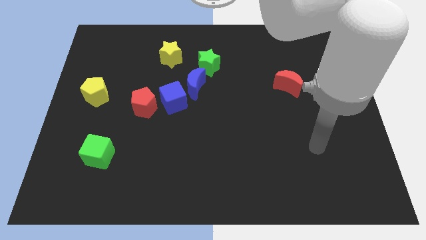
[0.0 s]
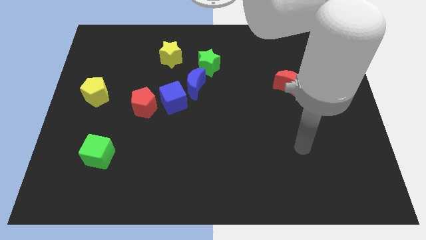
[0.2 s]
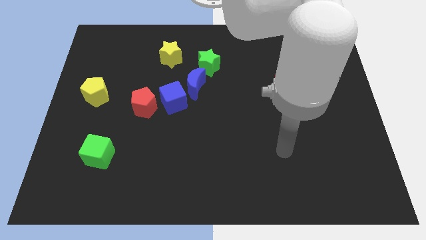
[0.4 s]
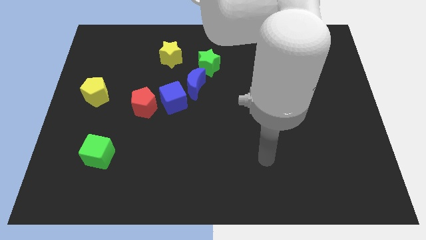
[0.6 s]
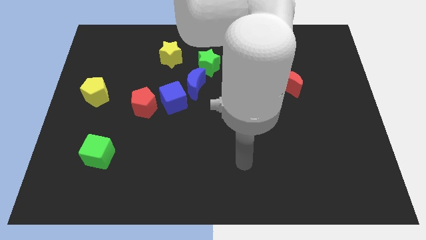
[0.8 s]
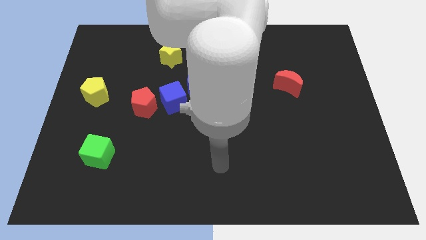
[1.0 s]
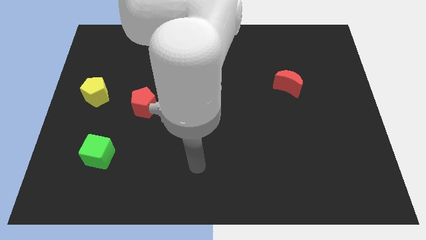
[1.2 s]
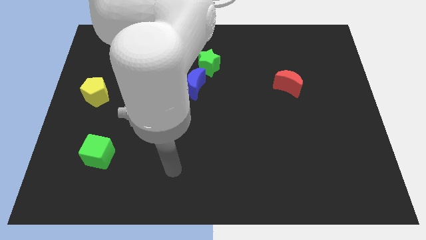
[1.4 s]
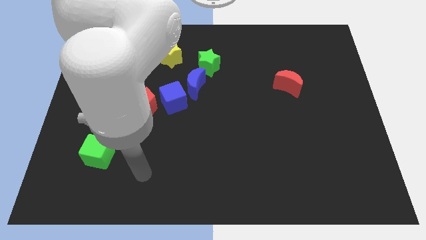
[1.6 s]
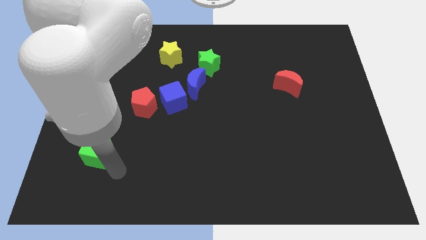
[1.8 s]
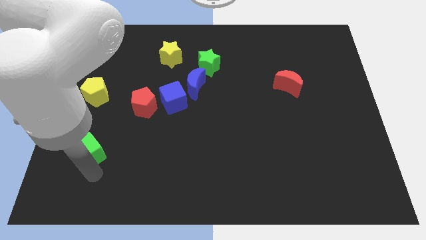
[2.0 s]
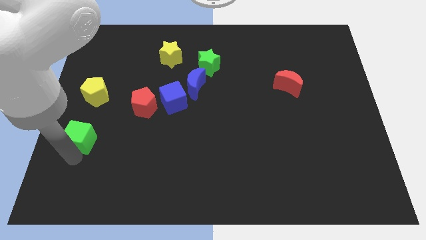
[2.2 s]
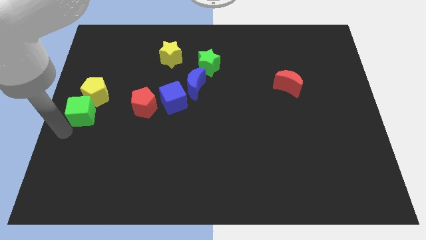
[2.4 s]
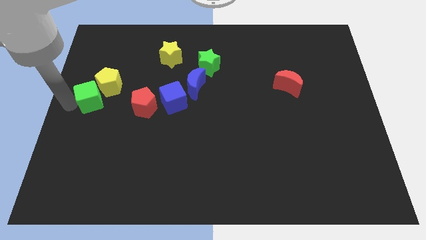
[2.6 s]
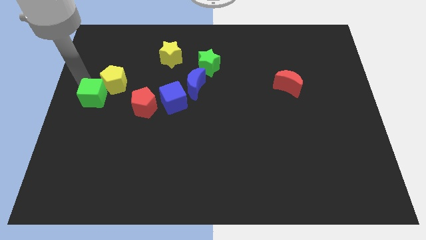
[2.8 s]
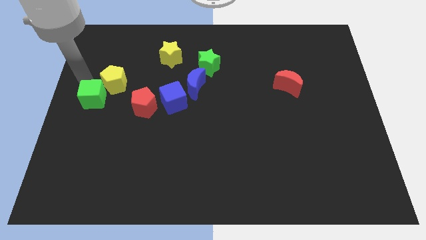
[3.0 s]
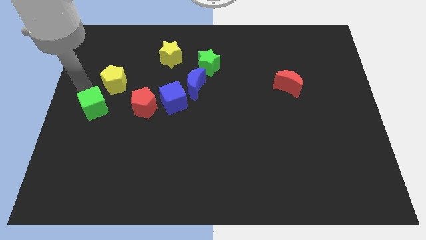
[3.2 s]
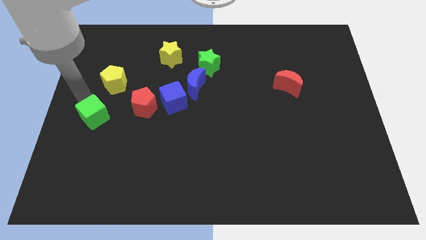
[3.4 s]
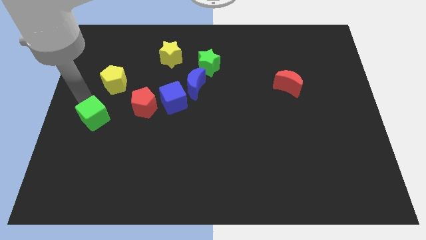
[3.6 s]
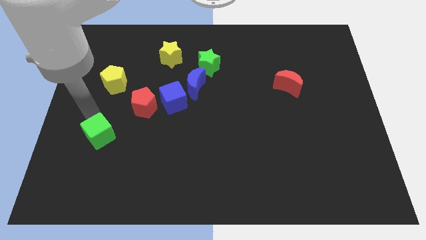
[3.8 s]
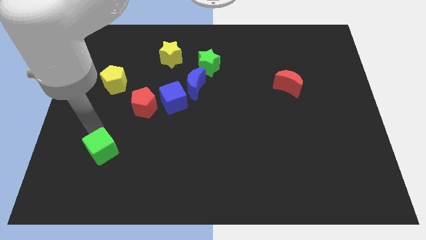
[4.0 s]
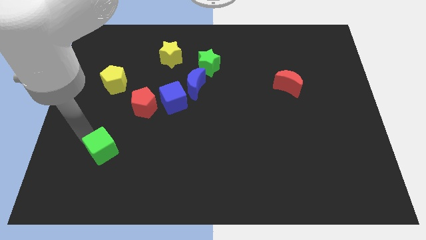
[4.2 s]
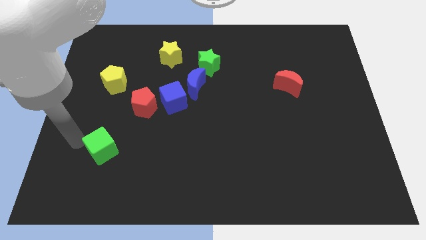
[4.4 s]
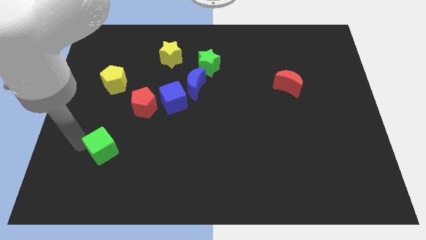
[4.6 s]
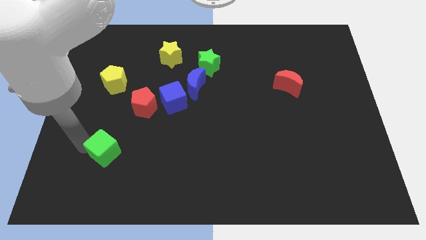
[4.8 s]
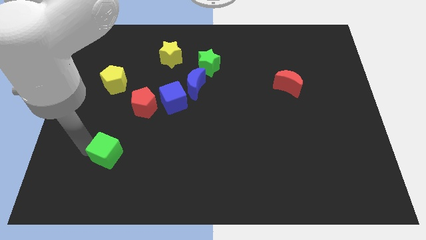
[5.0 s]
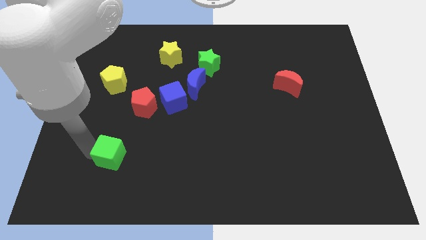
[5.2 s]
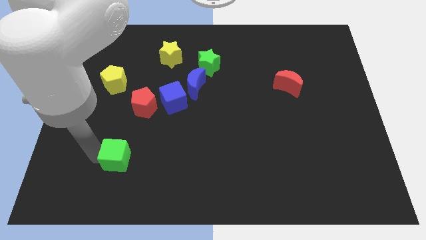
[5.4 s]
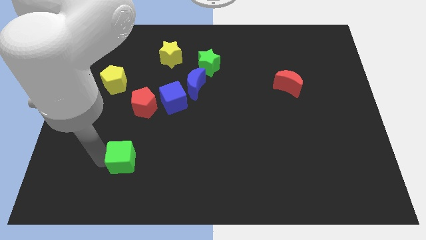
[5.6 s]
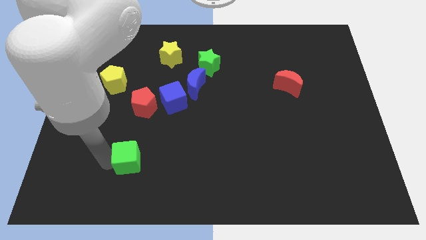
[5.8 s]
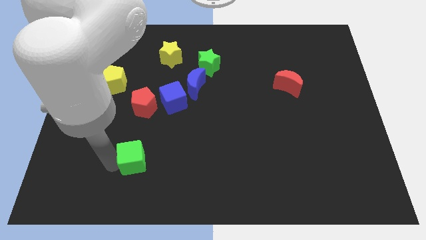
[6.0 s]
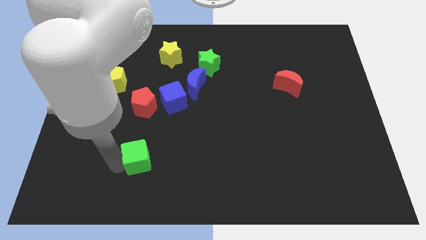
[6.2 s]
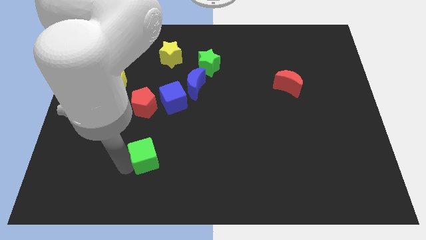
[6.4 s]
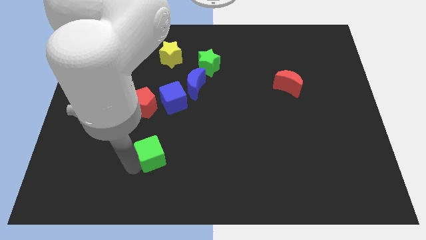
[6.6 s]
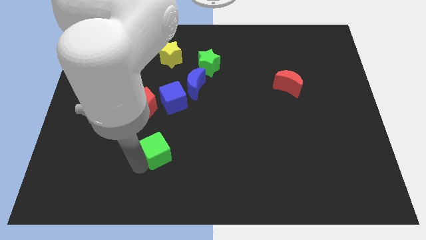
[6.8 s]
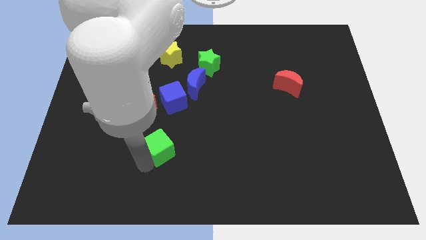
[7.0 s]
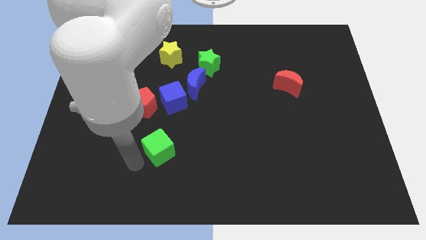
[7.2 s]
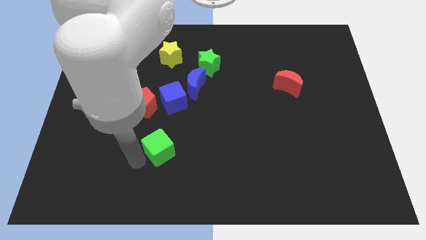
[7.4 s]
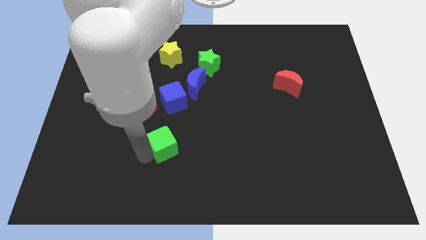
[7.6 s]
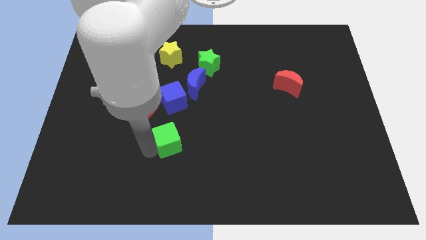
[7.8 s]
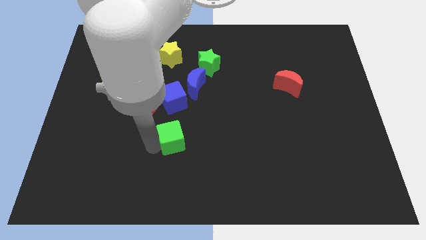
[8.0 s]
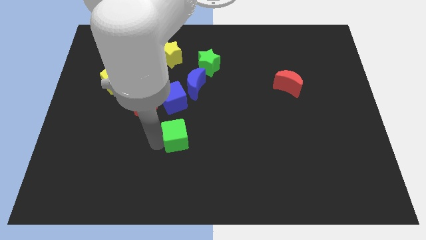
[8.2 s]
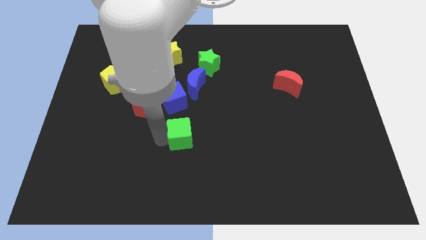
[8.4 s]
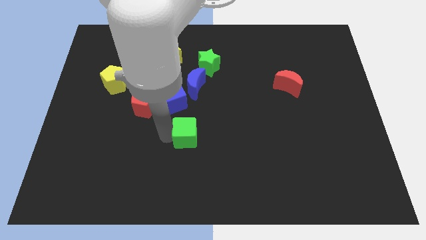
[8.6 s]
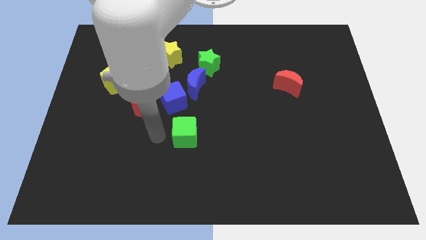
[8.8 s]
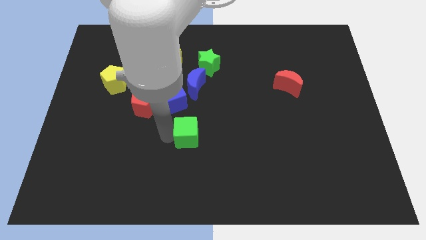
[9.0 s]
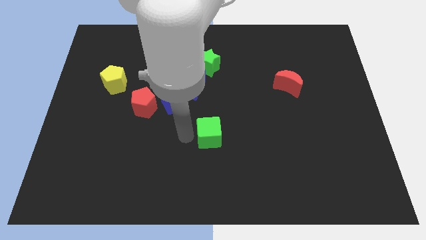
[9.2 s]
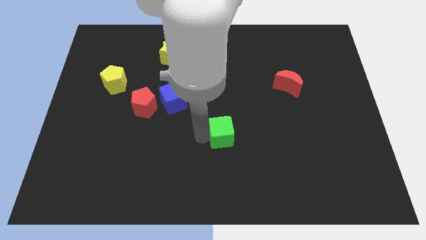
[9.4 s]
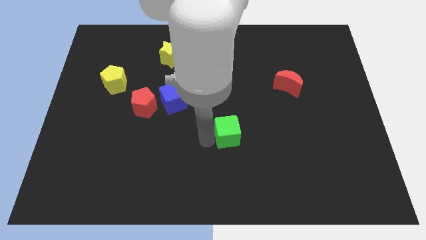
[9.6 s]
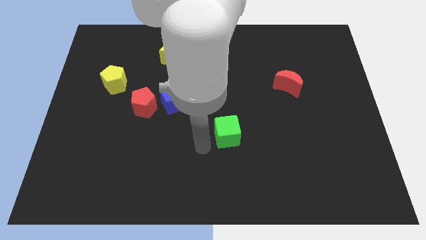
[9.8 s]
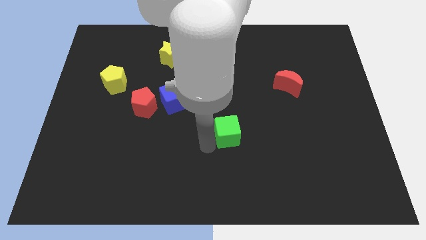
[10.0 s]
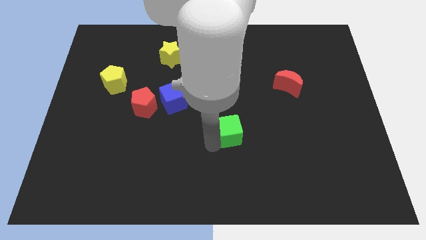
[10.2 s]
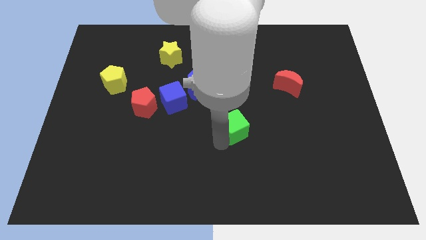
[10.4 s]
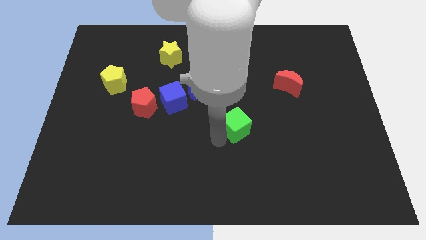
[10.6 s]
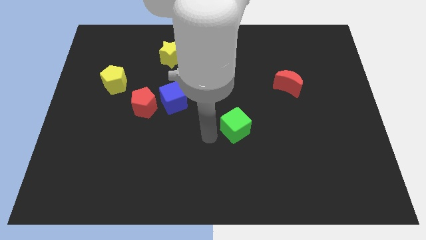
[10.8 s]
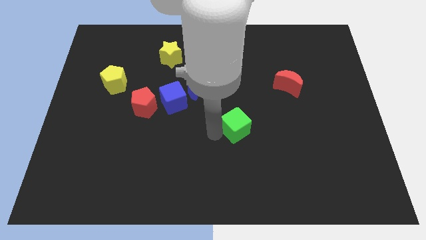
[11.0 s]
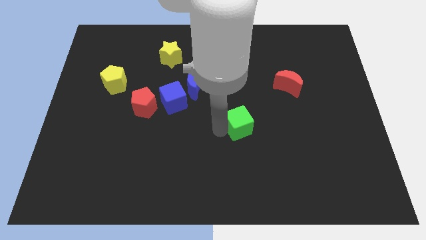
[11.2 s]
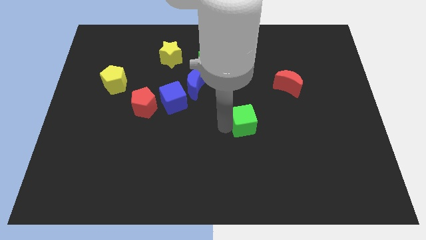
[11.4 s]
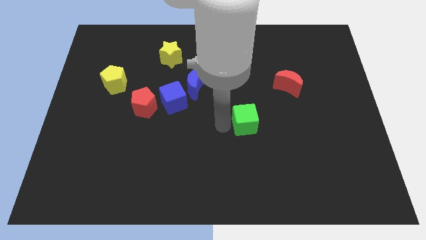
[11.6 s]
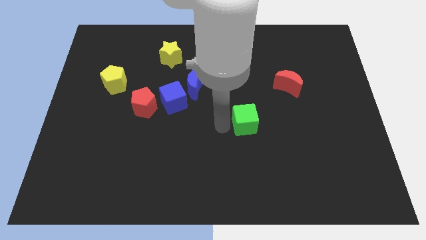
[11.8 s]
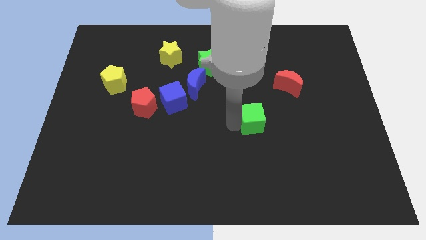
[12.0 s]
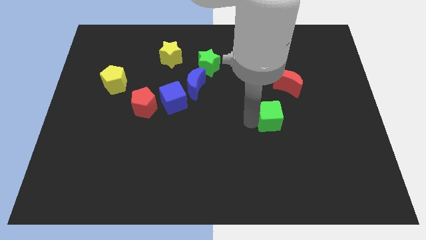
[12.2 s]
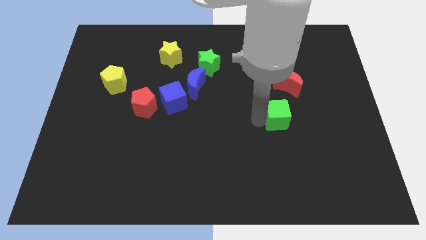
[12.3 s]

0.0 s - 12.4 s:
push the green cube below the red moon
